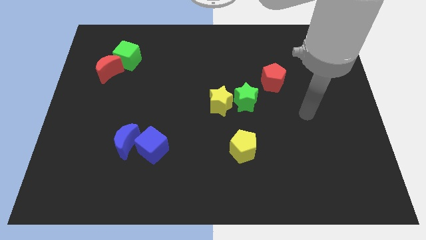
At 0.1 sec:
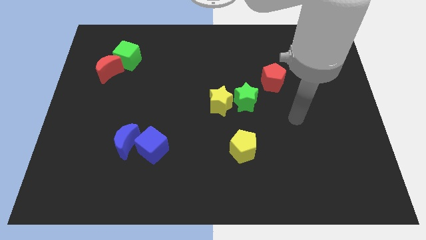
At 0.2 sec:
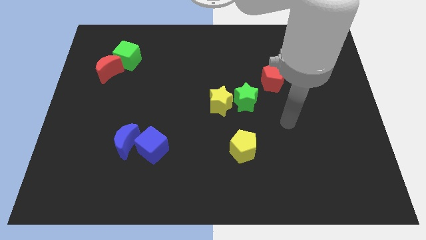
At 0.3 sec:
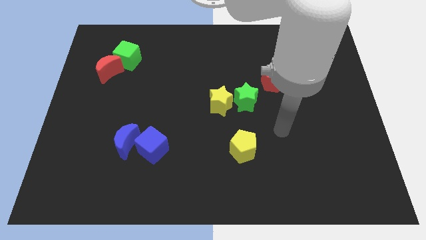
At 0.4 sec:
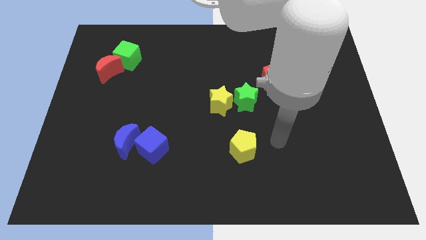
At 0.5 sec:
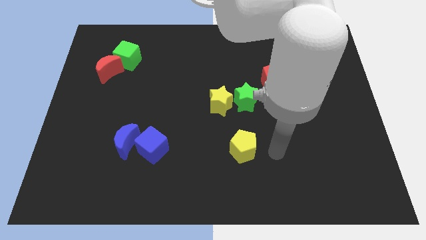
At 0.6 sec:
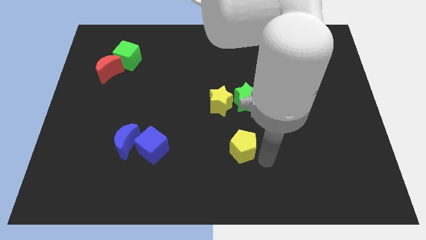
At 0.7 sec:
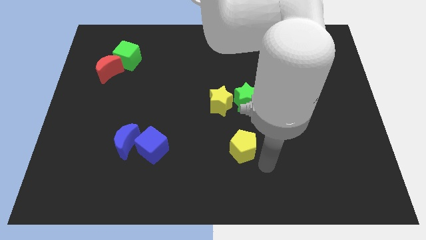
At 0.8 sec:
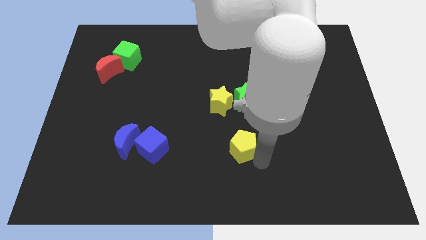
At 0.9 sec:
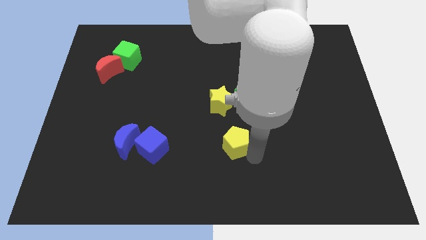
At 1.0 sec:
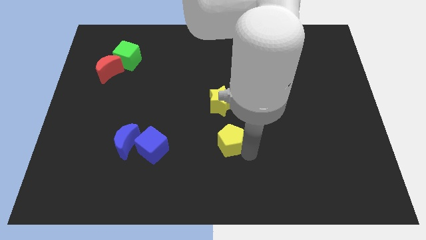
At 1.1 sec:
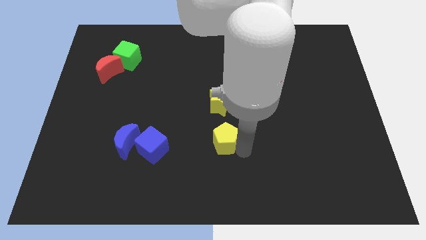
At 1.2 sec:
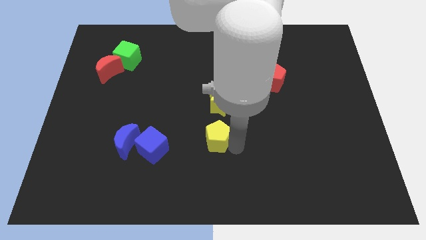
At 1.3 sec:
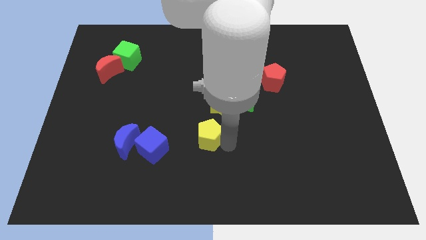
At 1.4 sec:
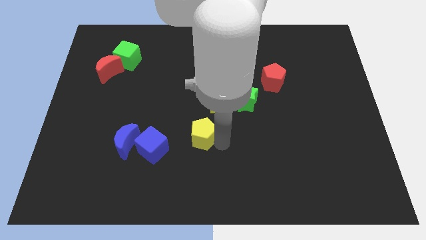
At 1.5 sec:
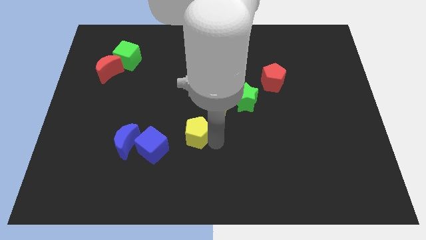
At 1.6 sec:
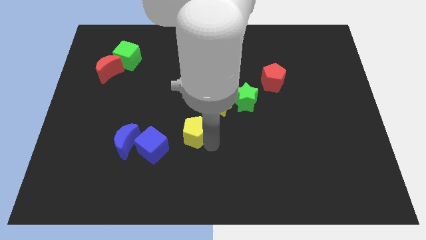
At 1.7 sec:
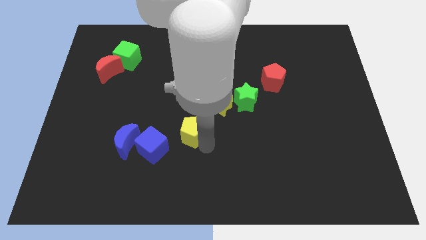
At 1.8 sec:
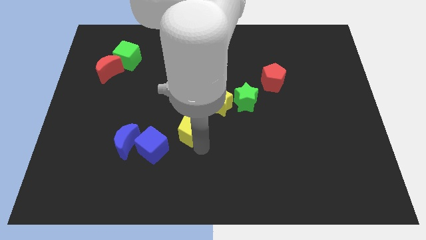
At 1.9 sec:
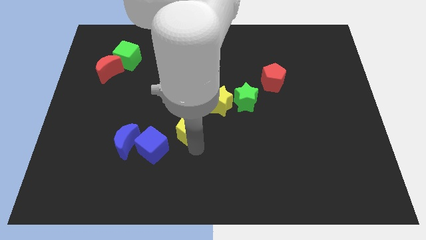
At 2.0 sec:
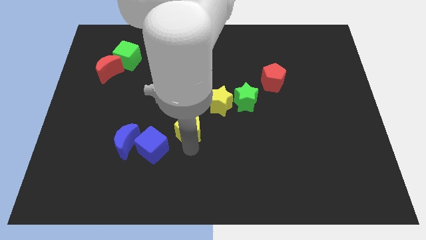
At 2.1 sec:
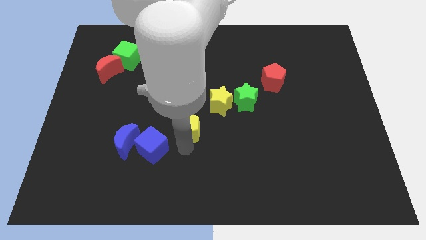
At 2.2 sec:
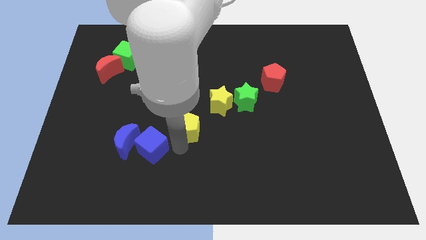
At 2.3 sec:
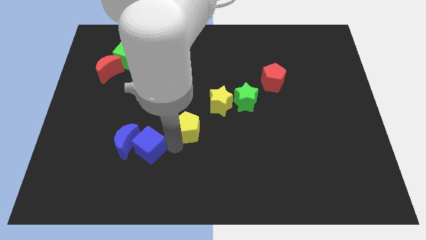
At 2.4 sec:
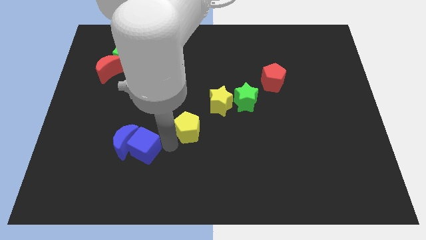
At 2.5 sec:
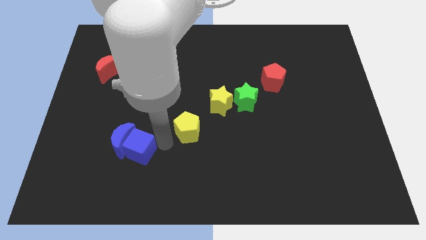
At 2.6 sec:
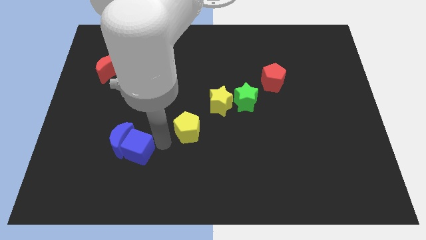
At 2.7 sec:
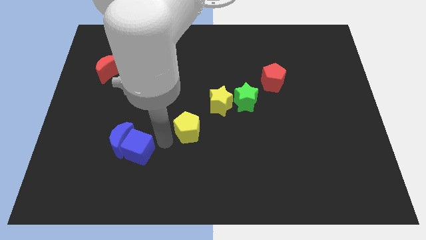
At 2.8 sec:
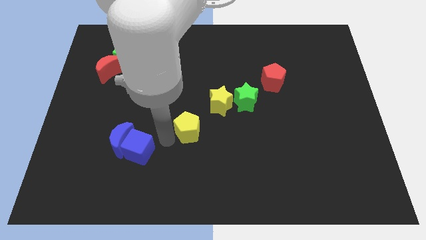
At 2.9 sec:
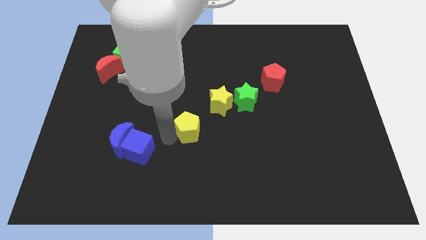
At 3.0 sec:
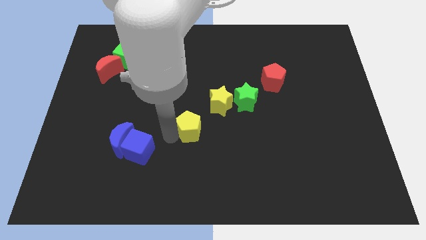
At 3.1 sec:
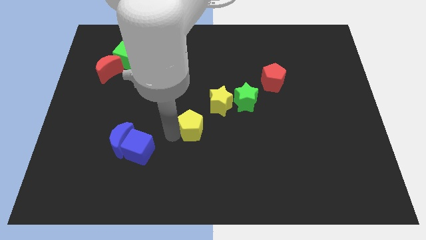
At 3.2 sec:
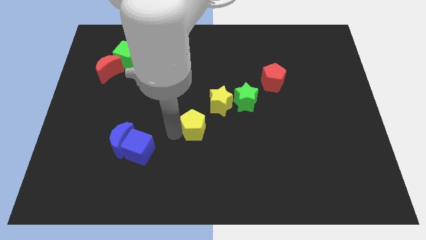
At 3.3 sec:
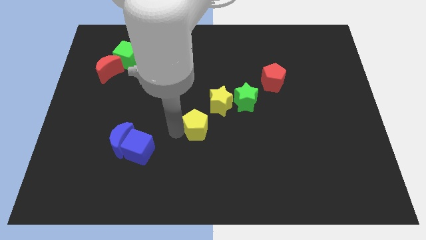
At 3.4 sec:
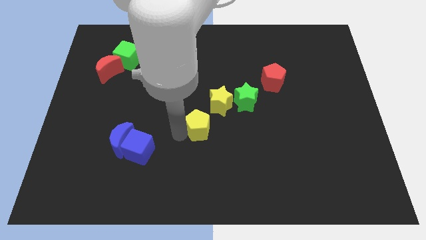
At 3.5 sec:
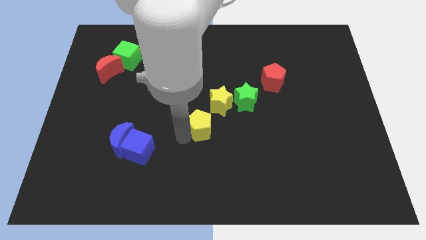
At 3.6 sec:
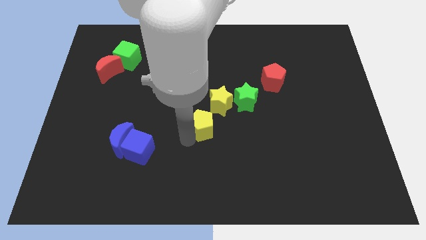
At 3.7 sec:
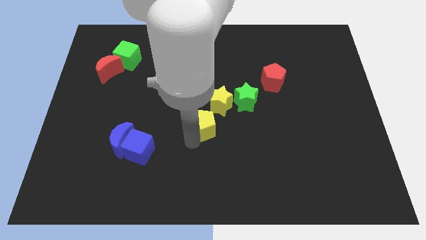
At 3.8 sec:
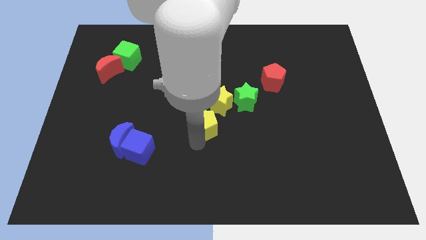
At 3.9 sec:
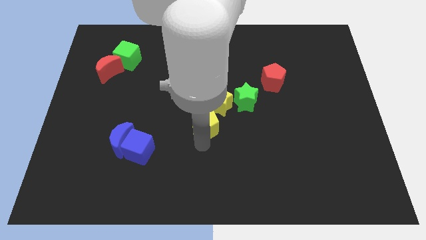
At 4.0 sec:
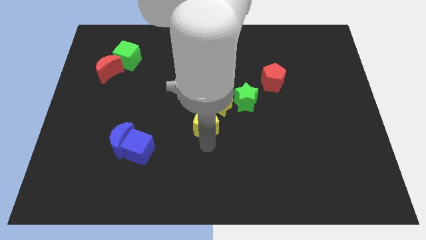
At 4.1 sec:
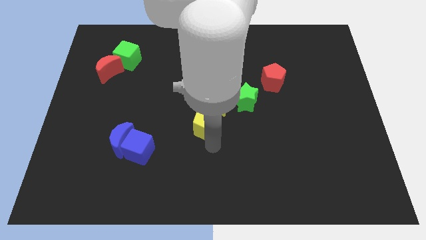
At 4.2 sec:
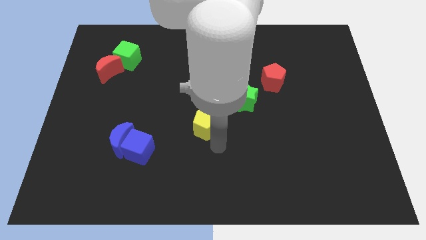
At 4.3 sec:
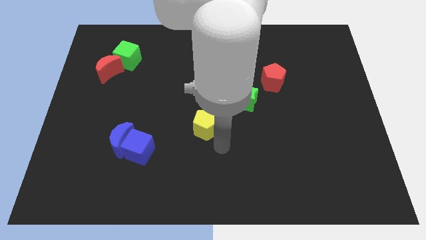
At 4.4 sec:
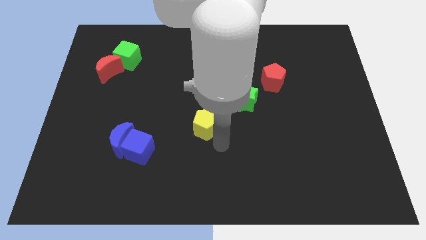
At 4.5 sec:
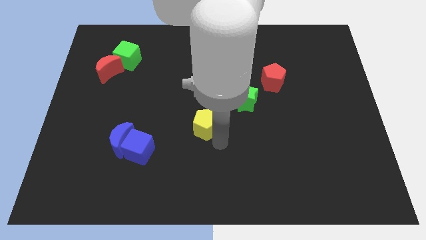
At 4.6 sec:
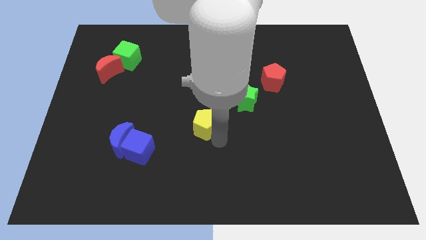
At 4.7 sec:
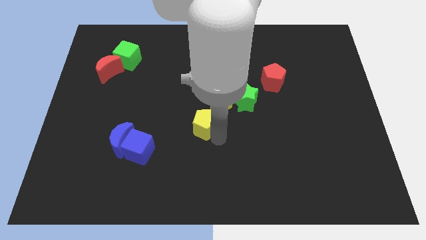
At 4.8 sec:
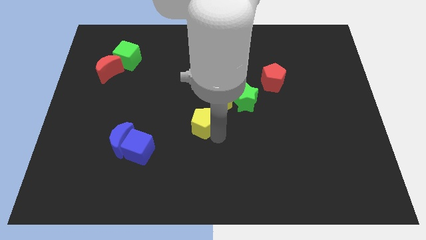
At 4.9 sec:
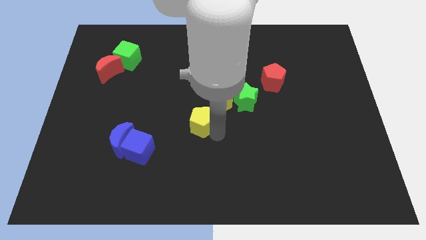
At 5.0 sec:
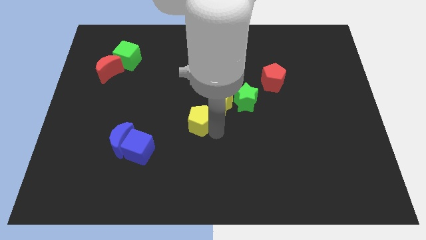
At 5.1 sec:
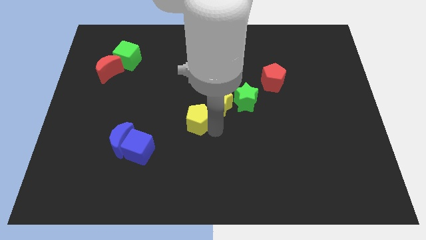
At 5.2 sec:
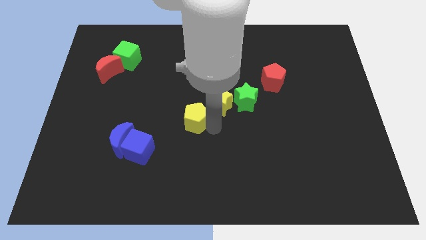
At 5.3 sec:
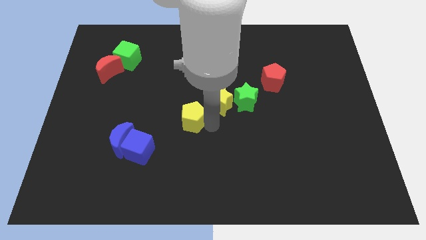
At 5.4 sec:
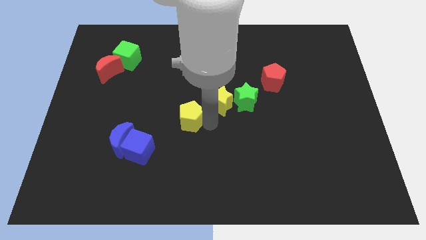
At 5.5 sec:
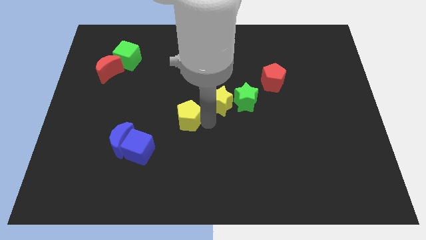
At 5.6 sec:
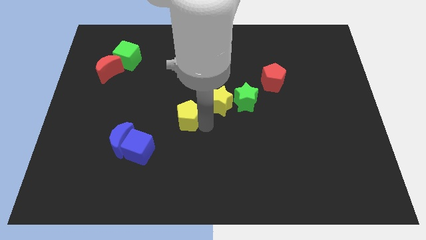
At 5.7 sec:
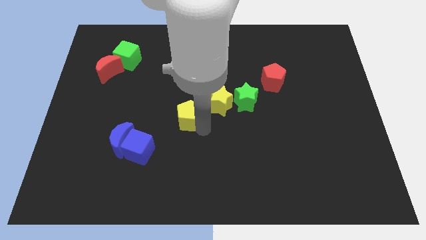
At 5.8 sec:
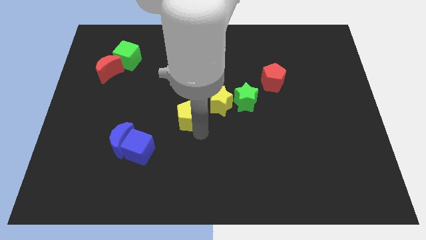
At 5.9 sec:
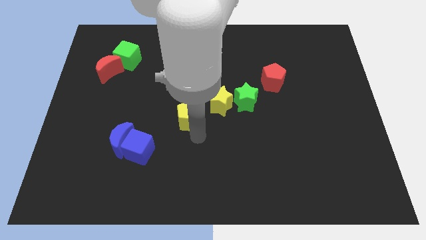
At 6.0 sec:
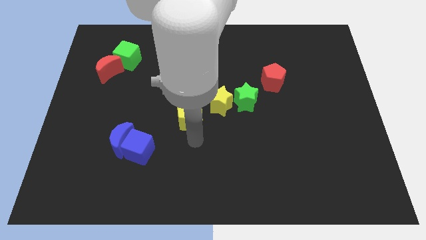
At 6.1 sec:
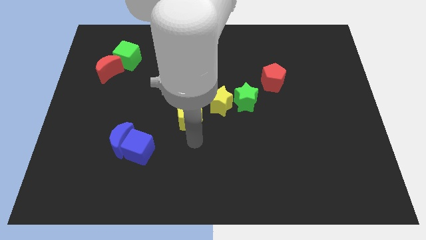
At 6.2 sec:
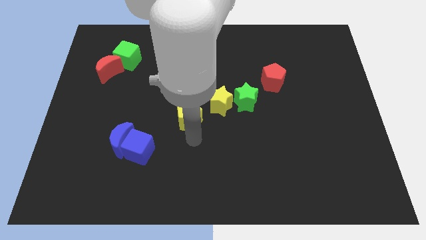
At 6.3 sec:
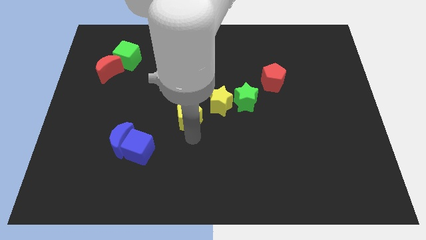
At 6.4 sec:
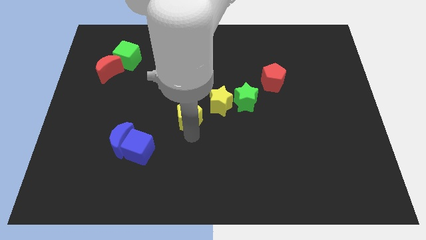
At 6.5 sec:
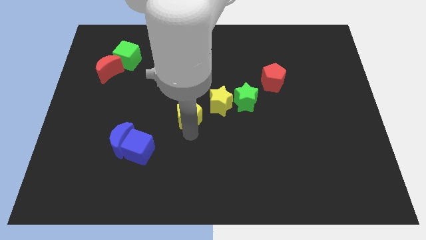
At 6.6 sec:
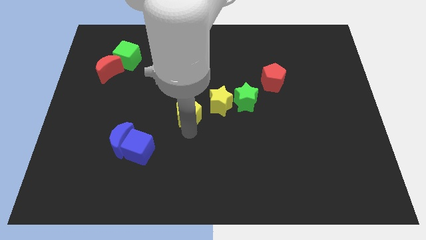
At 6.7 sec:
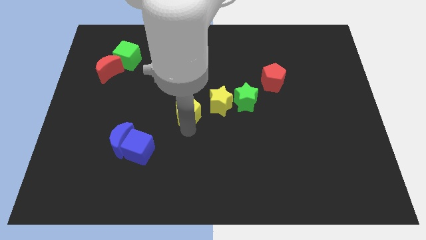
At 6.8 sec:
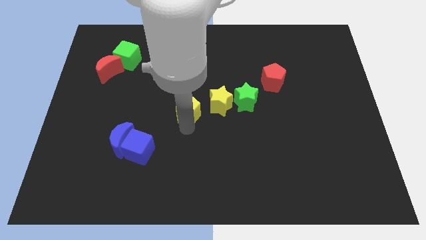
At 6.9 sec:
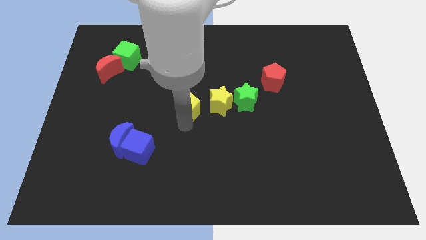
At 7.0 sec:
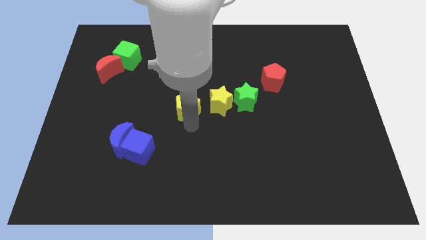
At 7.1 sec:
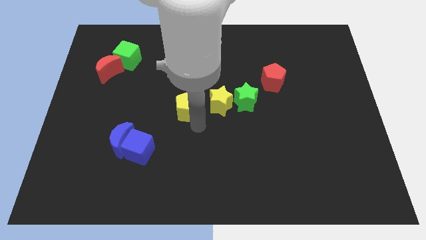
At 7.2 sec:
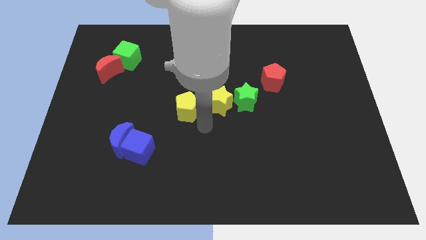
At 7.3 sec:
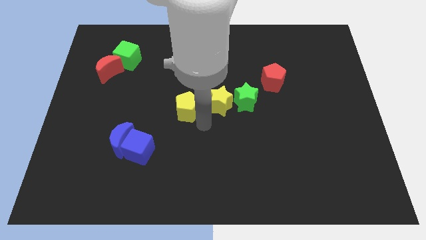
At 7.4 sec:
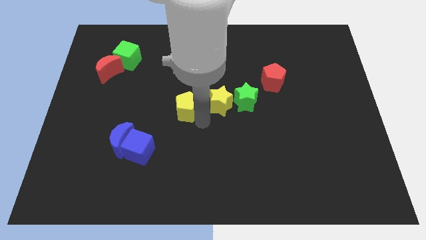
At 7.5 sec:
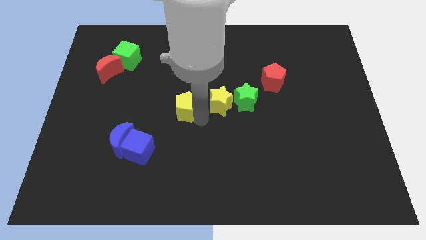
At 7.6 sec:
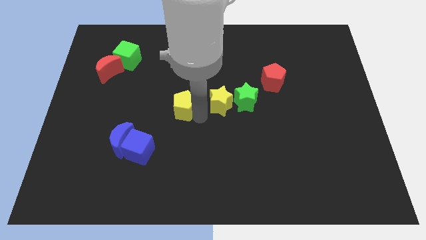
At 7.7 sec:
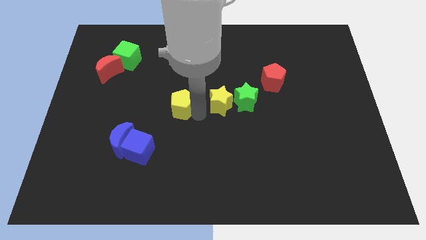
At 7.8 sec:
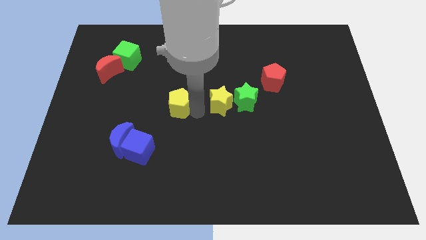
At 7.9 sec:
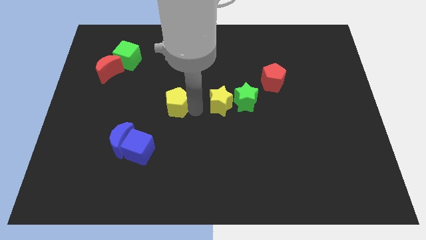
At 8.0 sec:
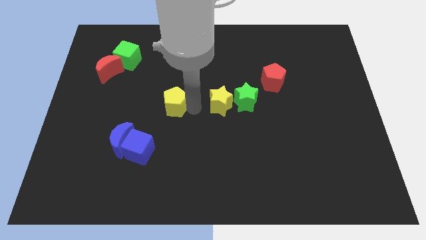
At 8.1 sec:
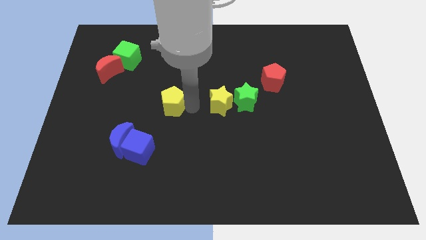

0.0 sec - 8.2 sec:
push the yellow pentagon upwards and then to the left
